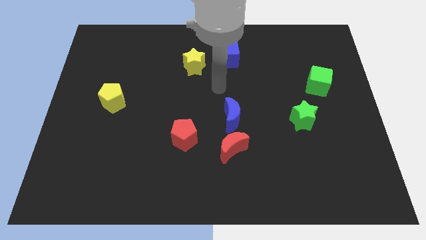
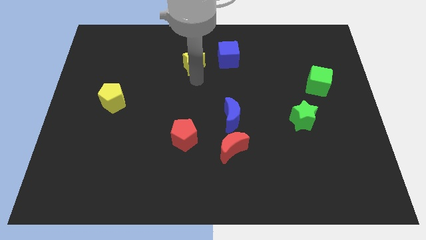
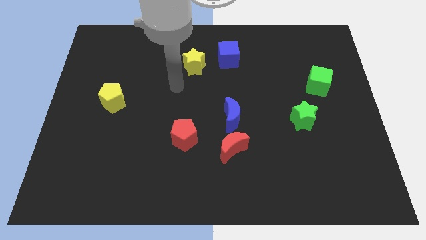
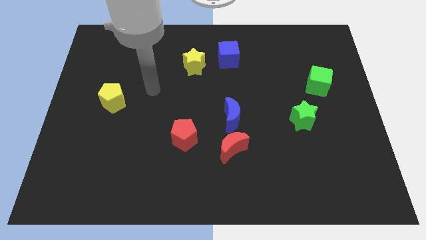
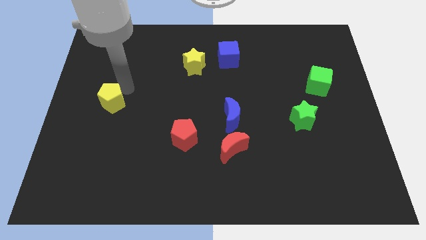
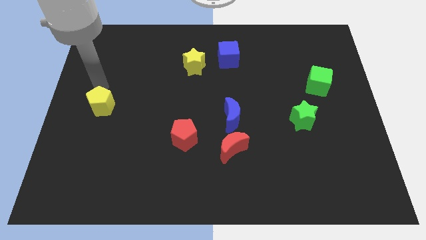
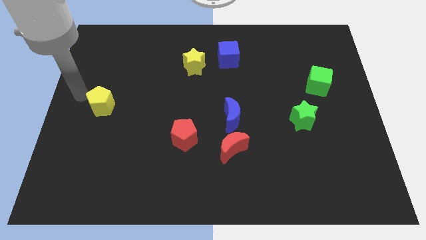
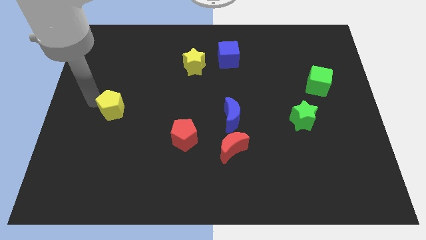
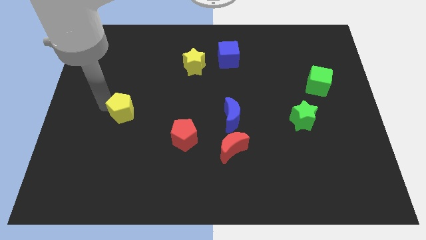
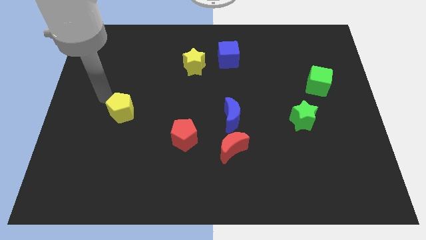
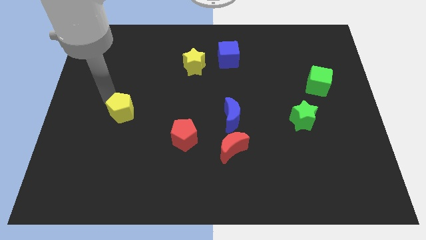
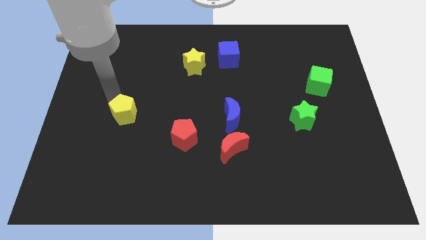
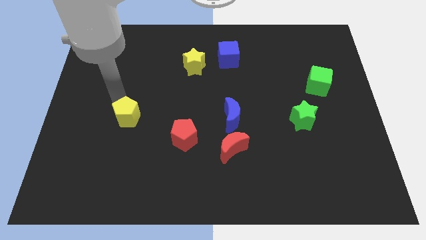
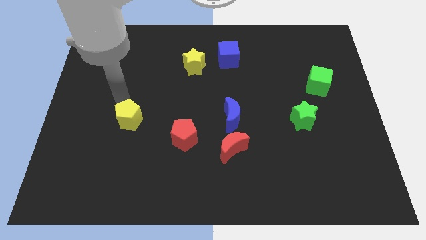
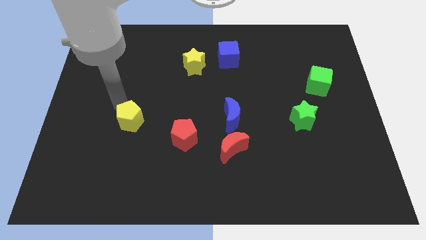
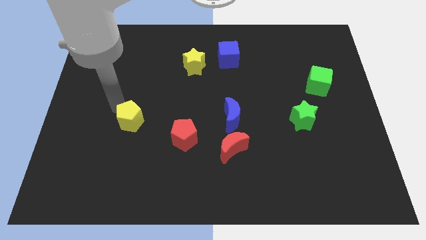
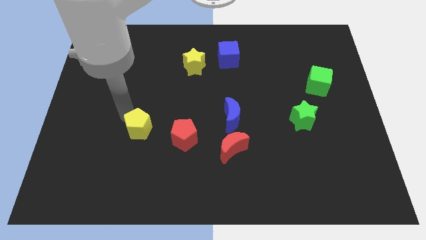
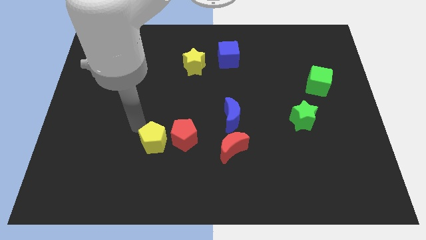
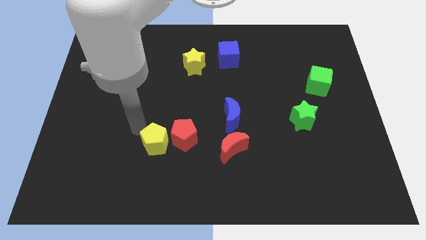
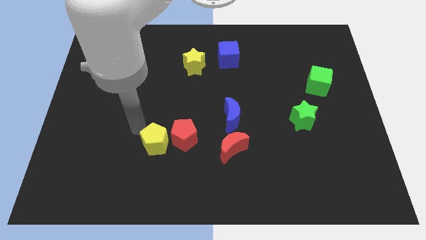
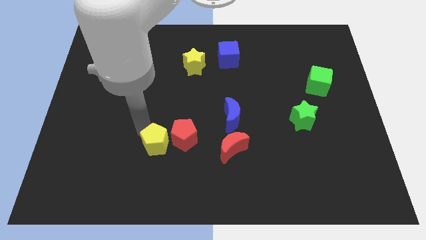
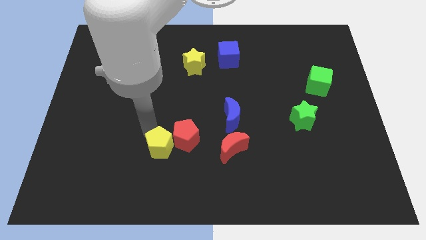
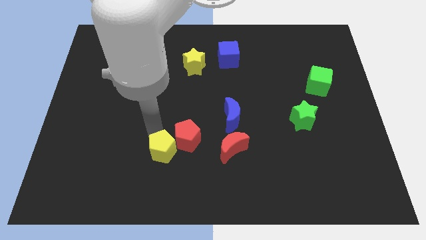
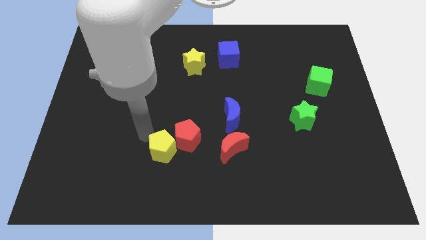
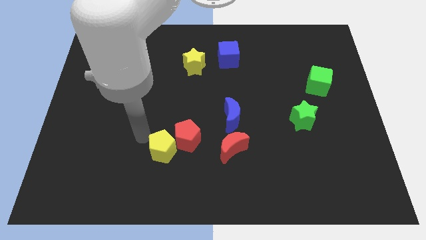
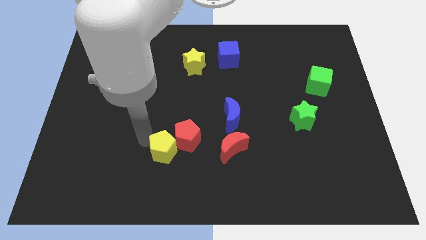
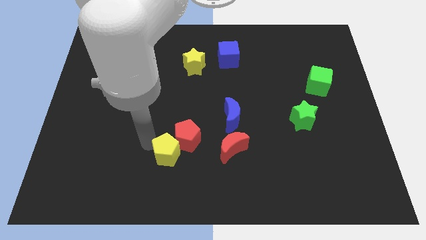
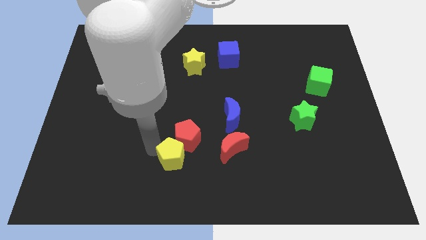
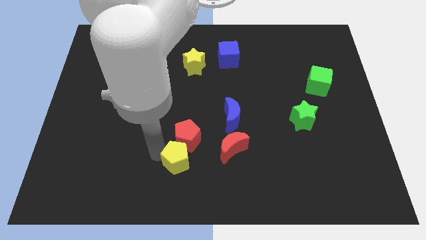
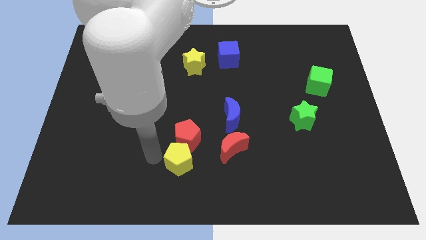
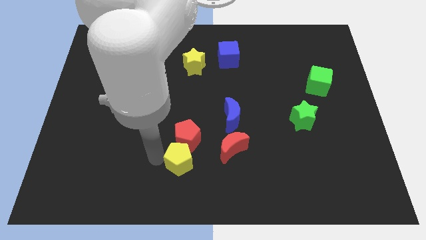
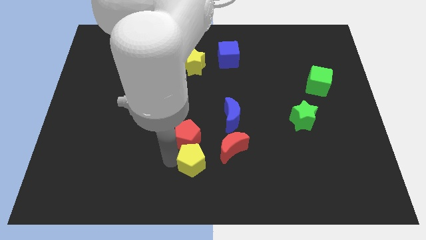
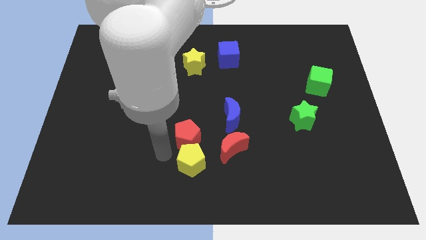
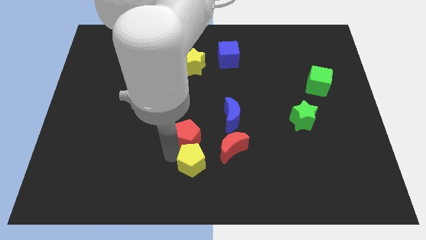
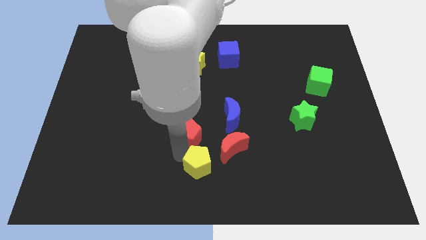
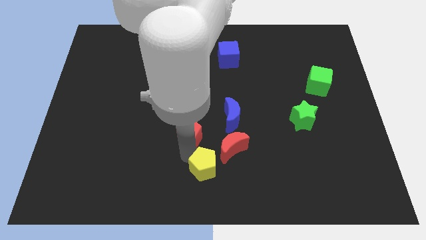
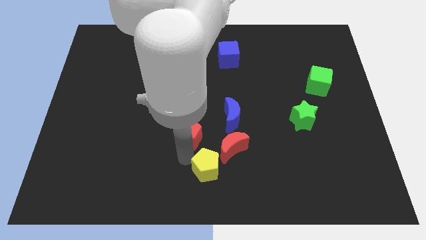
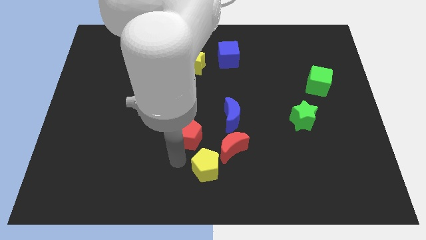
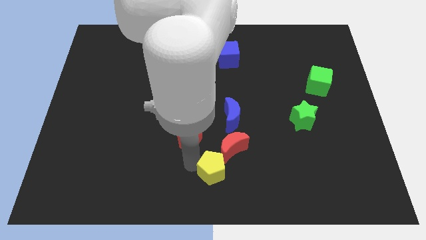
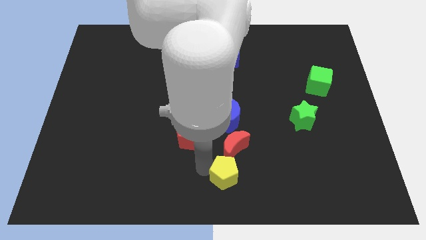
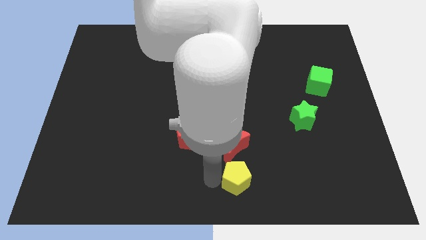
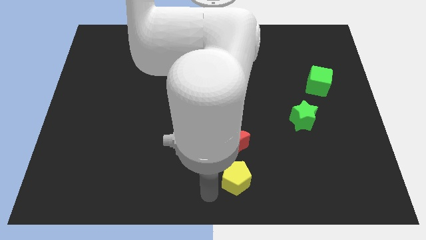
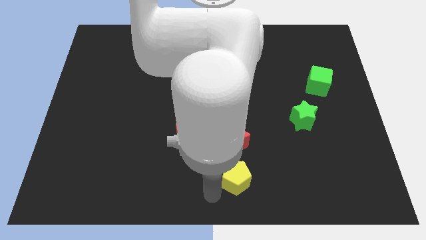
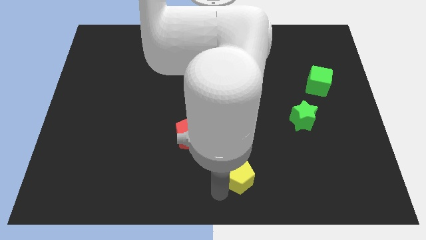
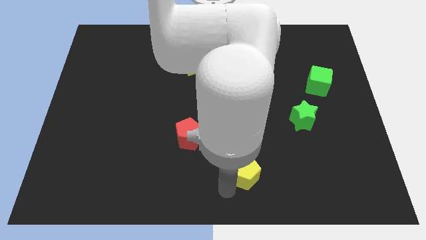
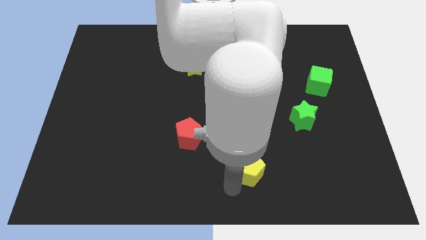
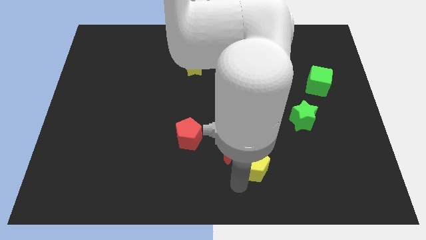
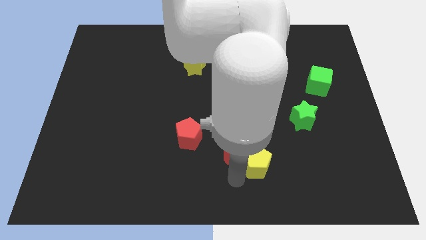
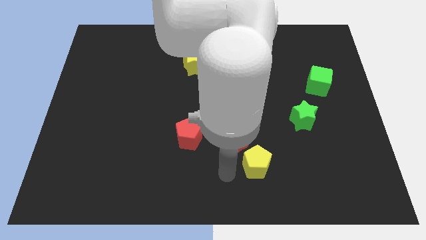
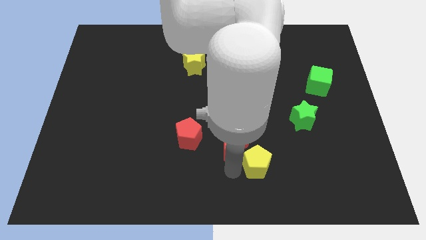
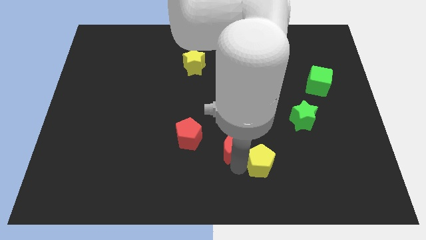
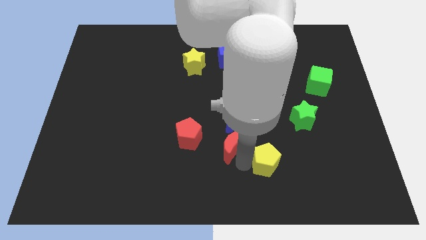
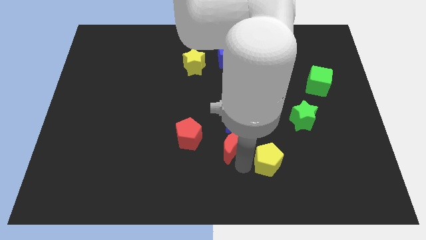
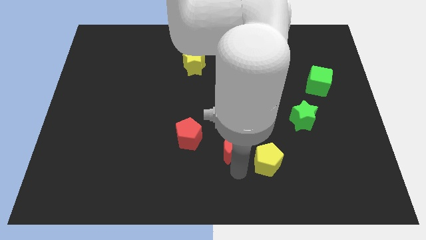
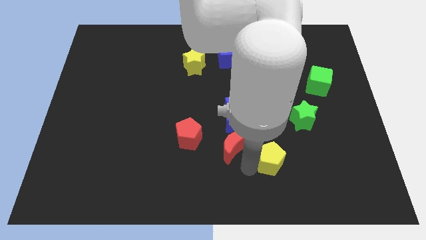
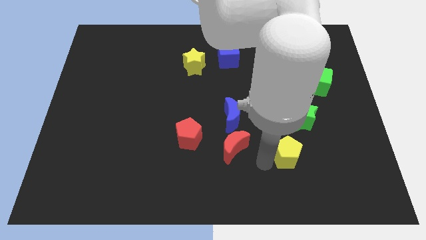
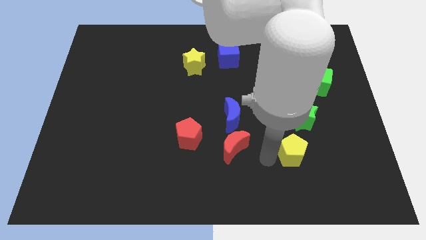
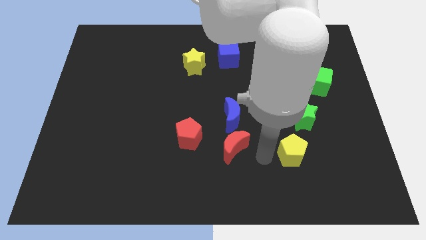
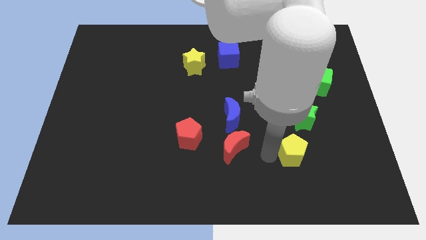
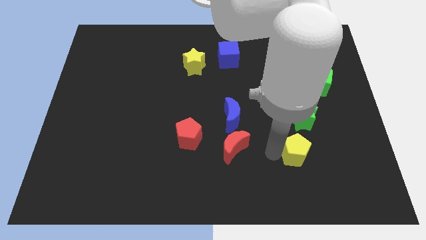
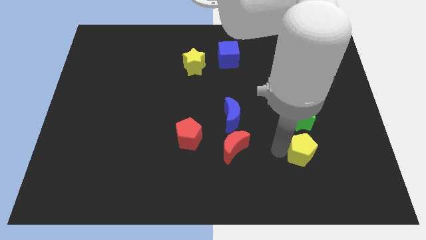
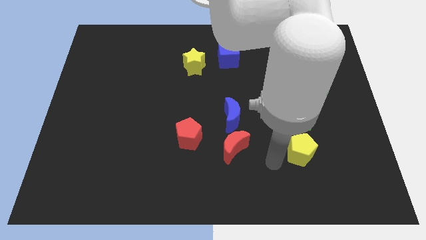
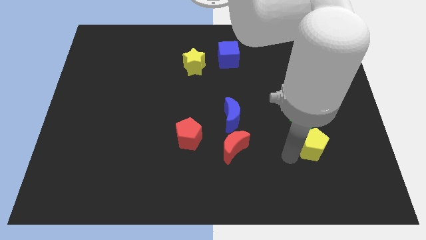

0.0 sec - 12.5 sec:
push the yellow pentagon to the bottom right side of the green star

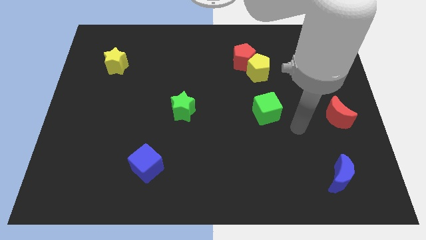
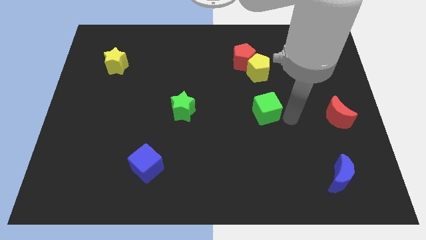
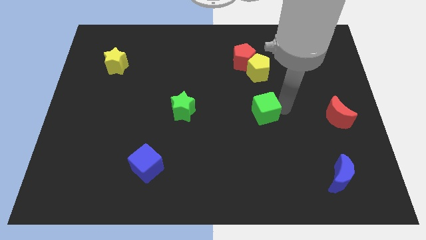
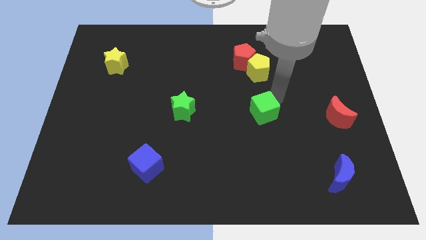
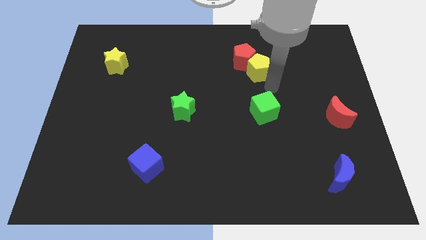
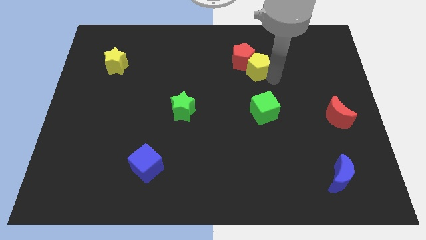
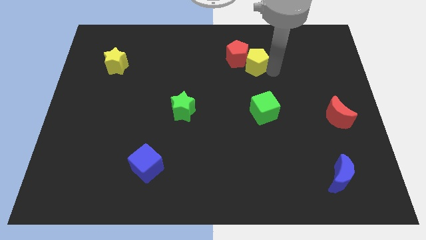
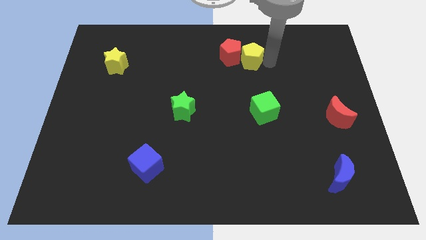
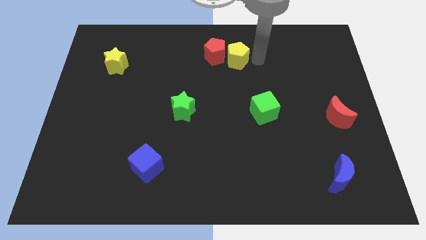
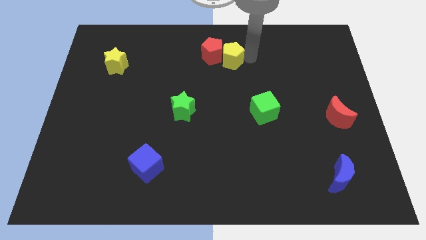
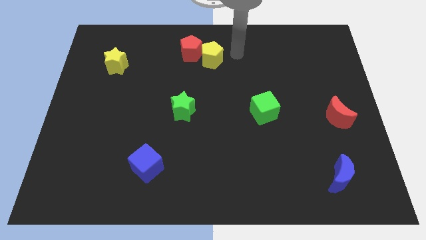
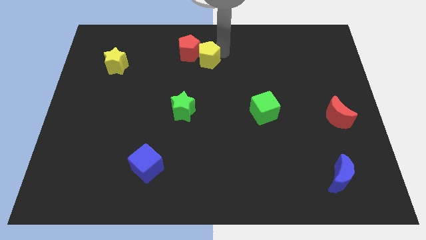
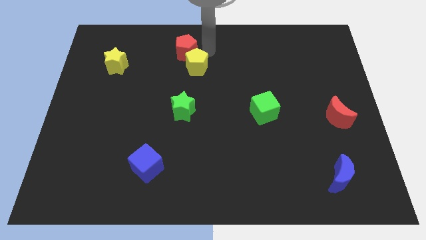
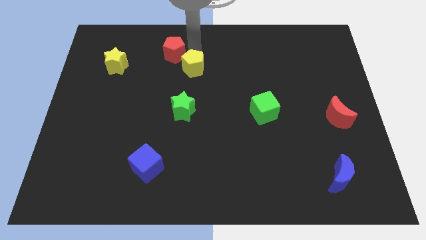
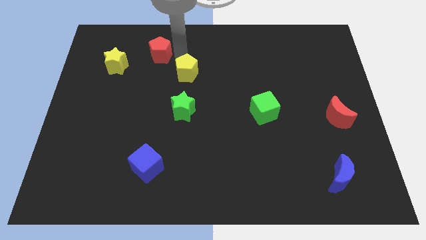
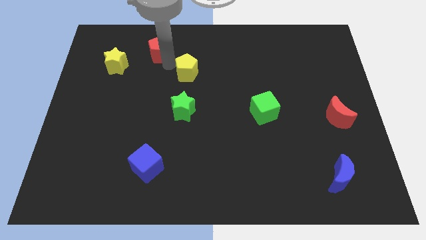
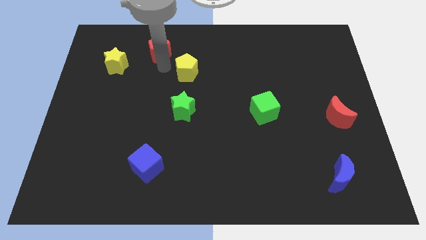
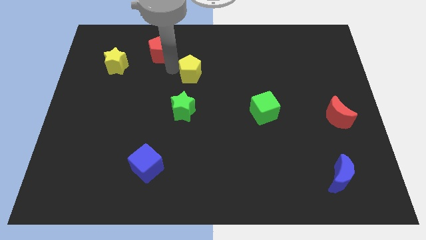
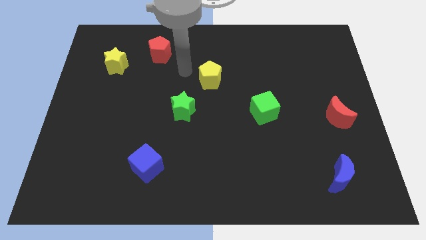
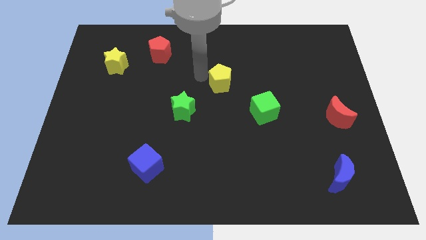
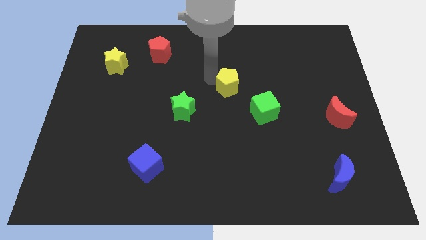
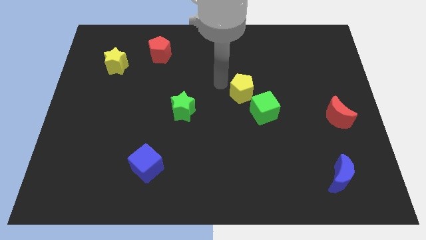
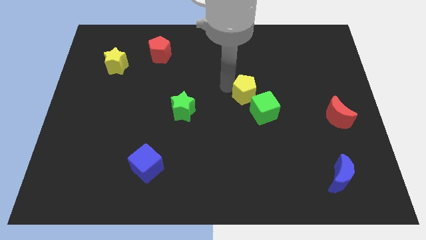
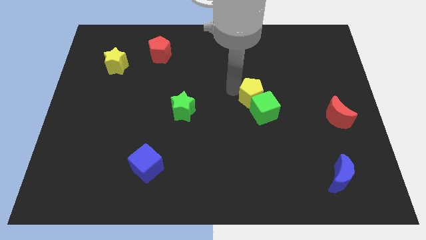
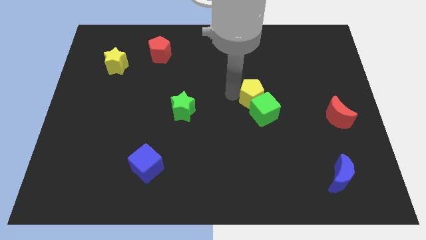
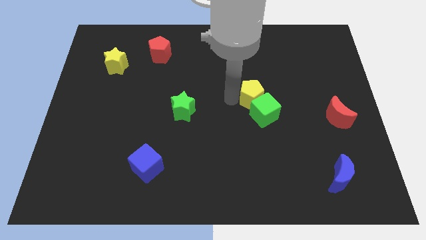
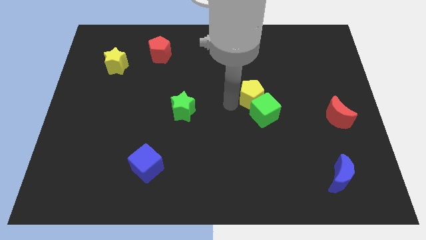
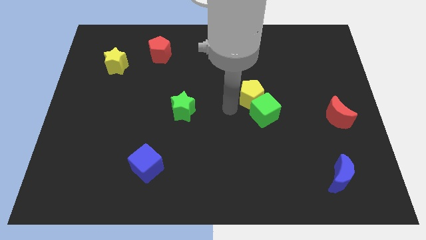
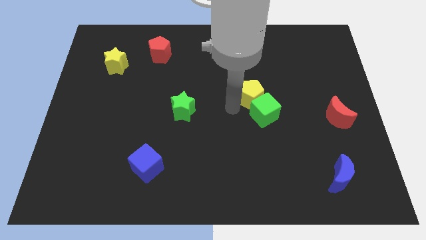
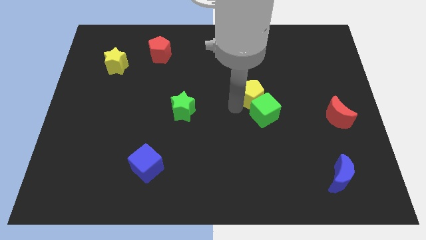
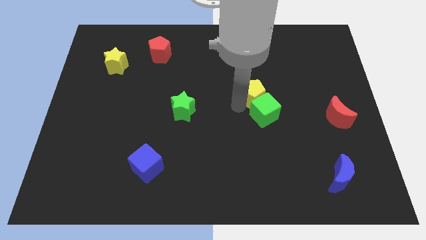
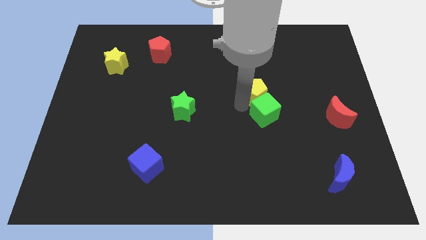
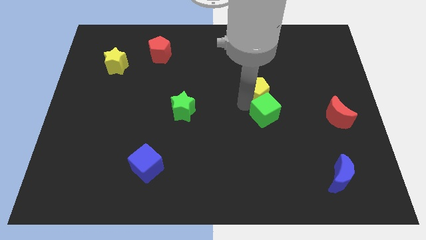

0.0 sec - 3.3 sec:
slide the yellow pentagon to the top right of the green cube
